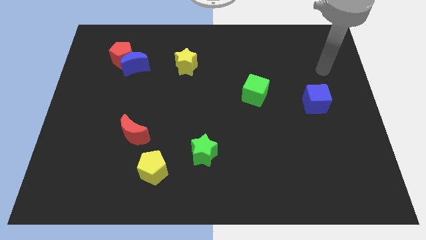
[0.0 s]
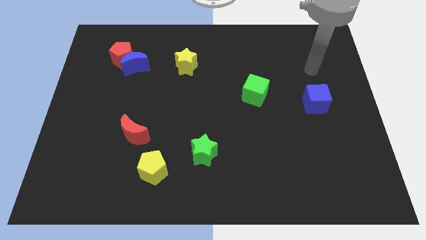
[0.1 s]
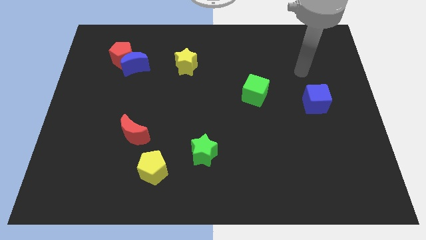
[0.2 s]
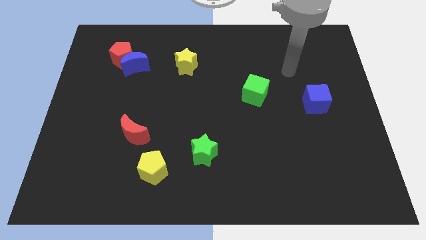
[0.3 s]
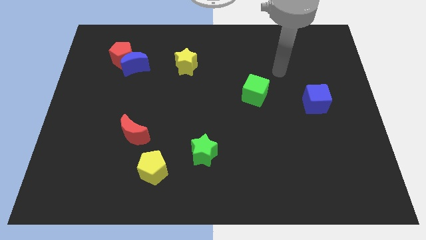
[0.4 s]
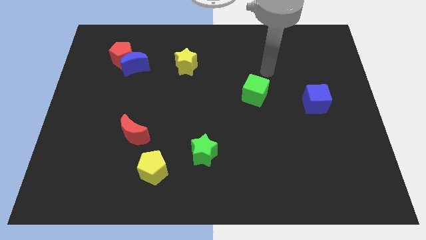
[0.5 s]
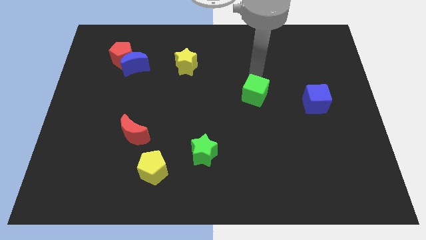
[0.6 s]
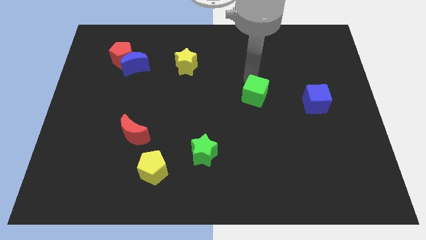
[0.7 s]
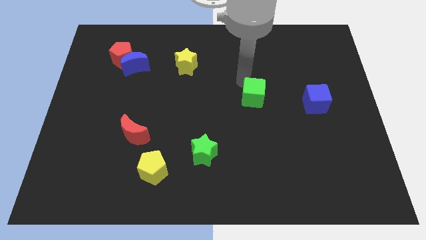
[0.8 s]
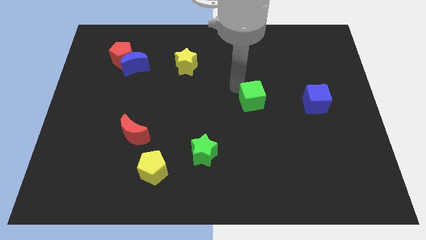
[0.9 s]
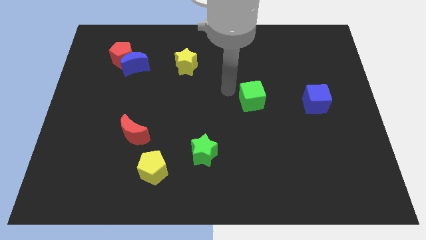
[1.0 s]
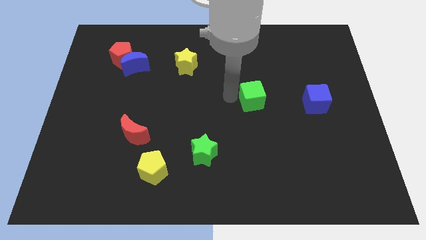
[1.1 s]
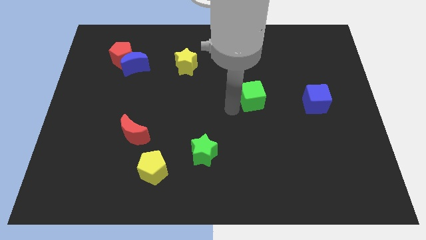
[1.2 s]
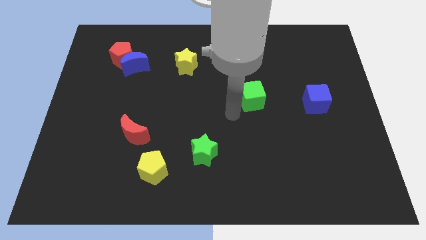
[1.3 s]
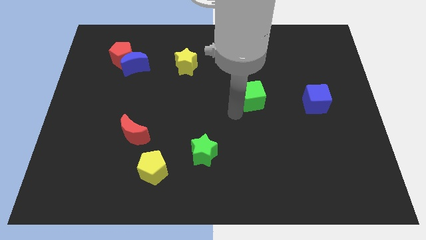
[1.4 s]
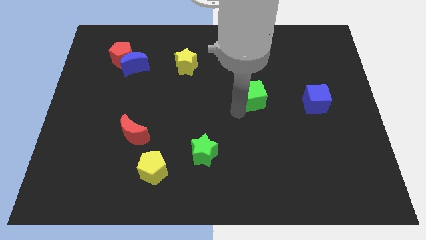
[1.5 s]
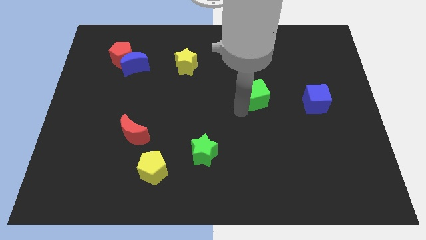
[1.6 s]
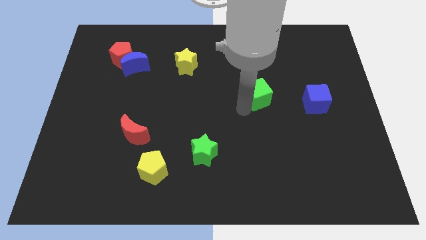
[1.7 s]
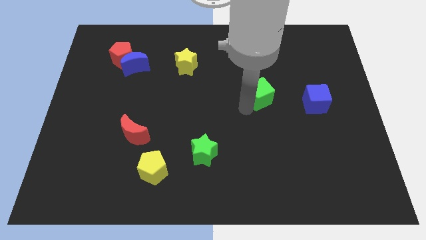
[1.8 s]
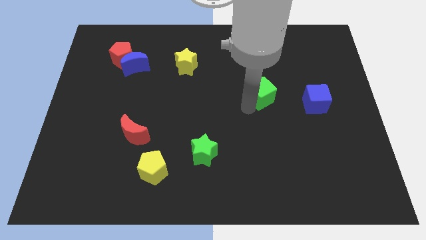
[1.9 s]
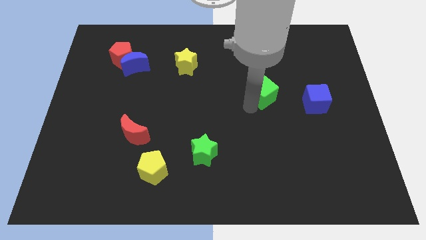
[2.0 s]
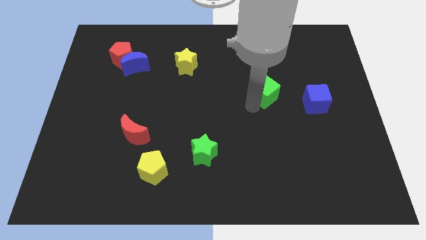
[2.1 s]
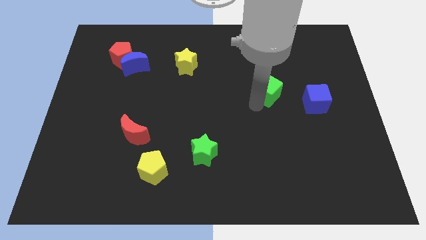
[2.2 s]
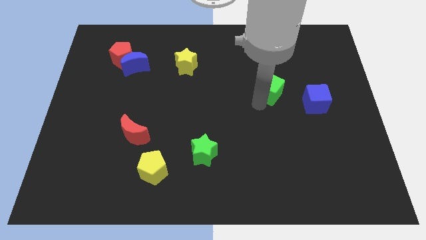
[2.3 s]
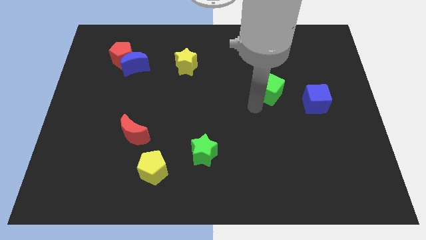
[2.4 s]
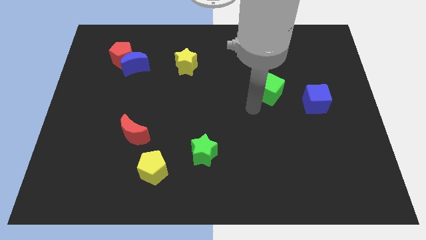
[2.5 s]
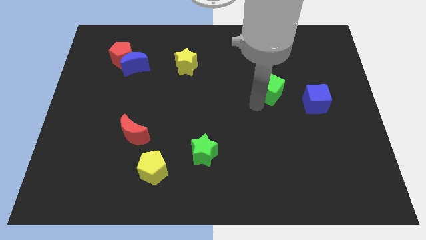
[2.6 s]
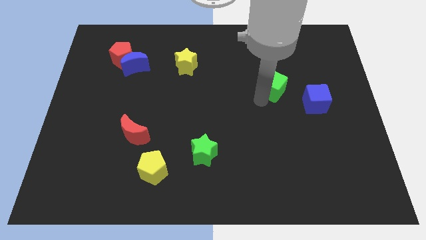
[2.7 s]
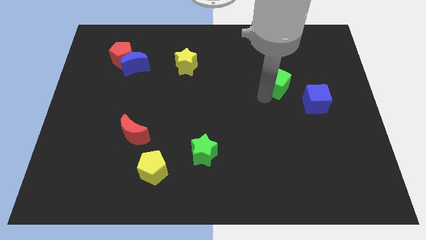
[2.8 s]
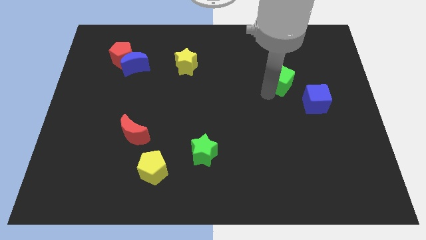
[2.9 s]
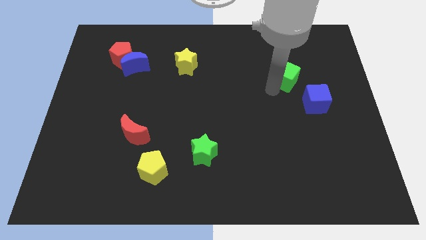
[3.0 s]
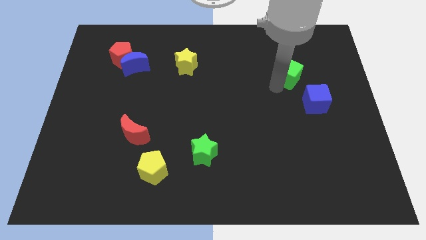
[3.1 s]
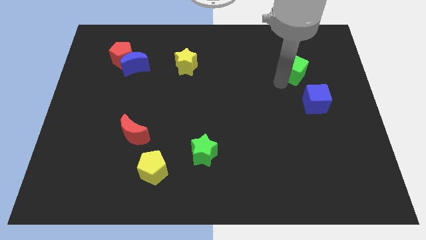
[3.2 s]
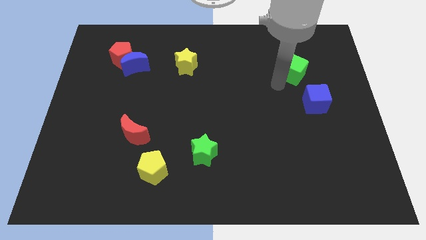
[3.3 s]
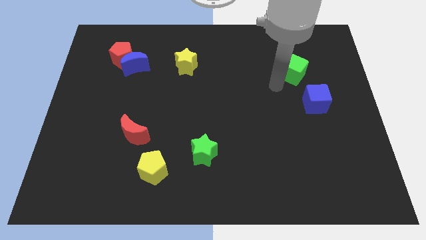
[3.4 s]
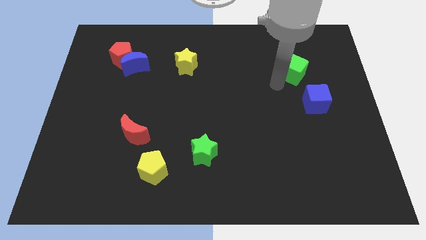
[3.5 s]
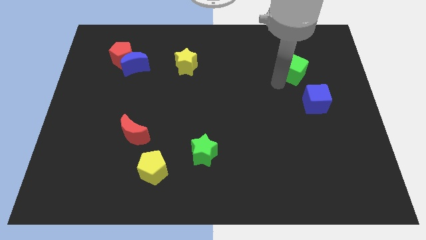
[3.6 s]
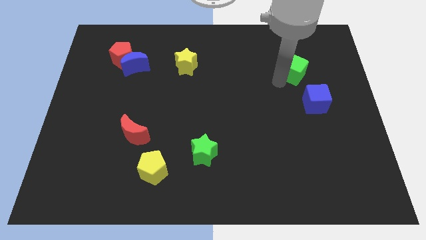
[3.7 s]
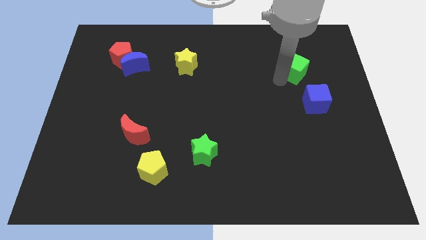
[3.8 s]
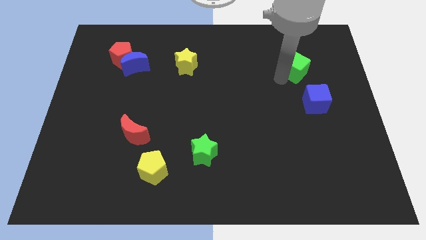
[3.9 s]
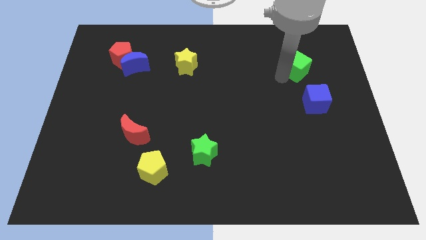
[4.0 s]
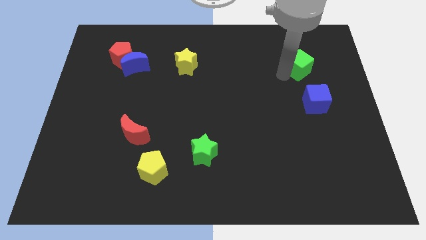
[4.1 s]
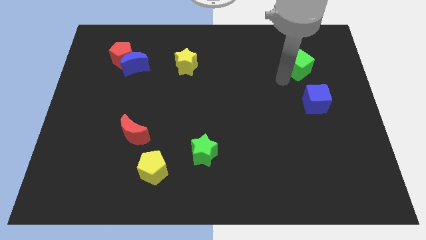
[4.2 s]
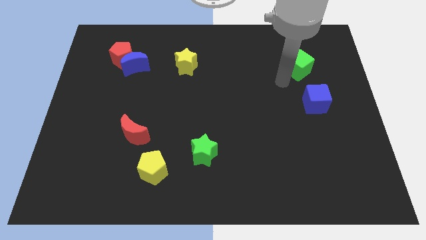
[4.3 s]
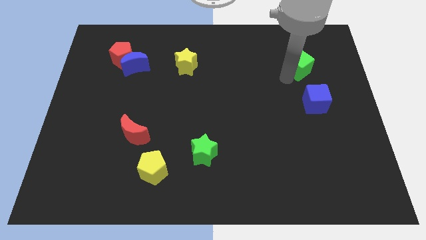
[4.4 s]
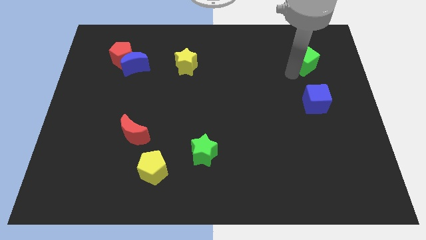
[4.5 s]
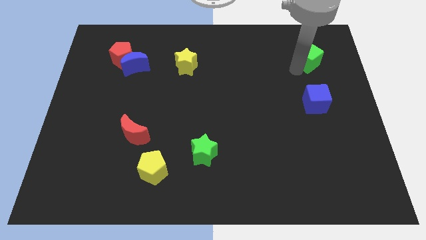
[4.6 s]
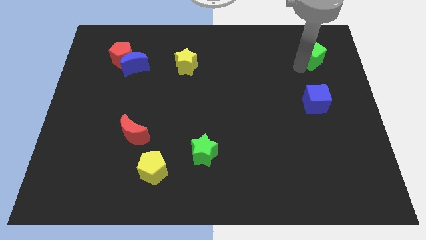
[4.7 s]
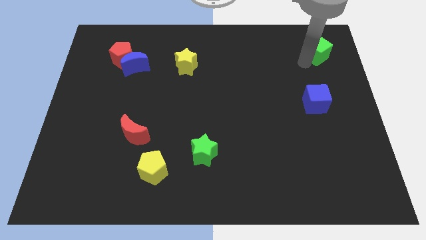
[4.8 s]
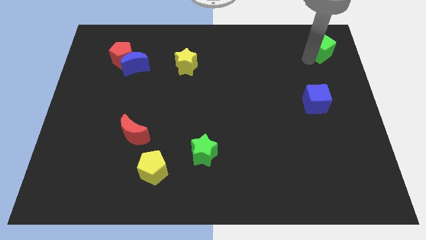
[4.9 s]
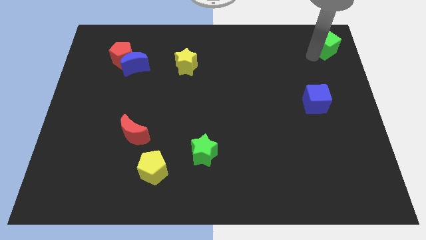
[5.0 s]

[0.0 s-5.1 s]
slide the green cube to the top right corner

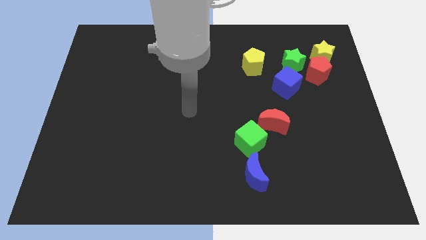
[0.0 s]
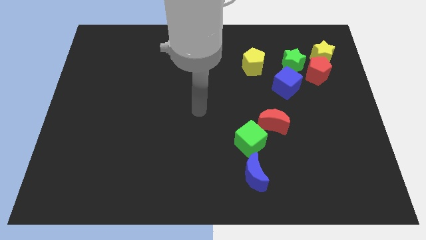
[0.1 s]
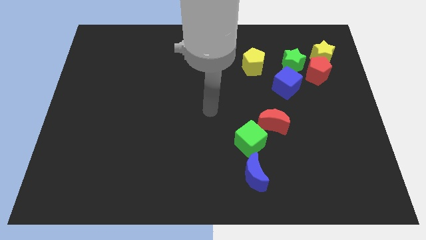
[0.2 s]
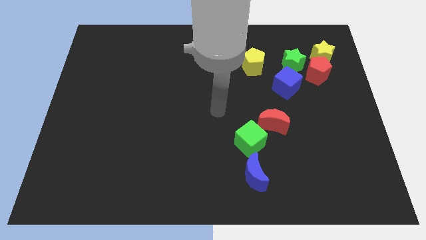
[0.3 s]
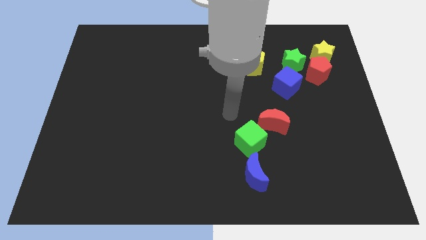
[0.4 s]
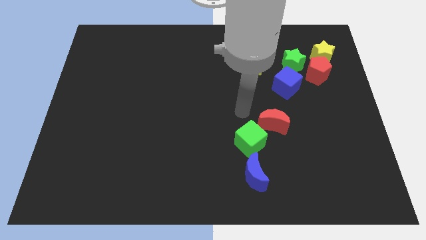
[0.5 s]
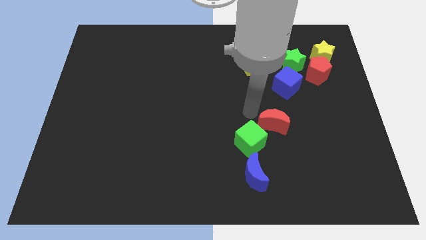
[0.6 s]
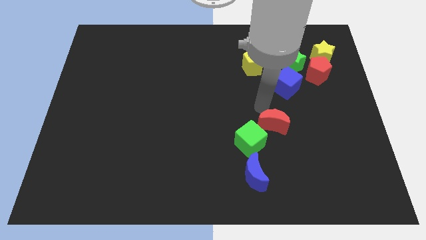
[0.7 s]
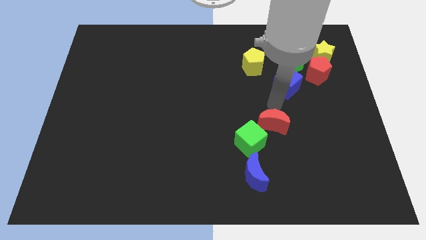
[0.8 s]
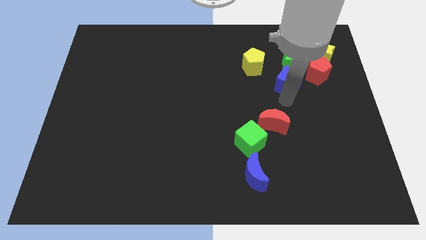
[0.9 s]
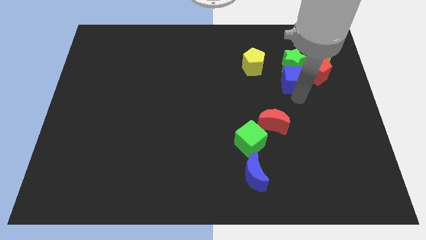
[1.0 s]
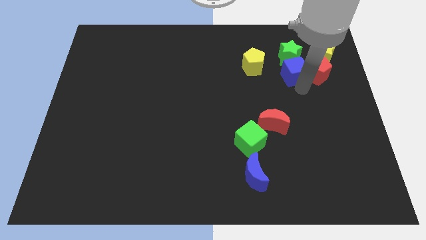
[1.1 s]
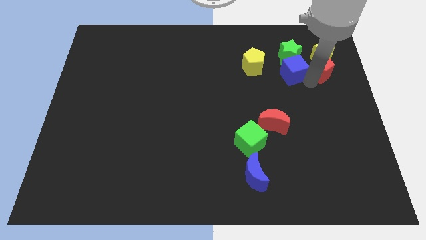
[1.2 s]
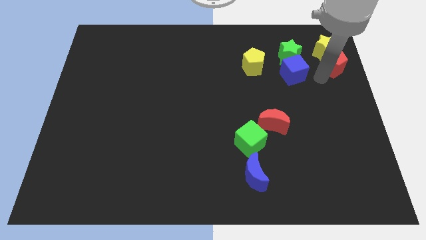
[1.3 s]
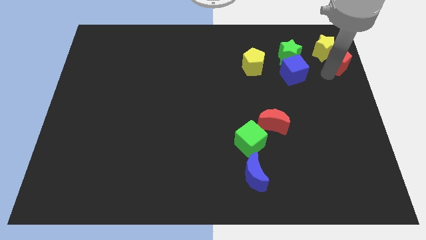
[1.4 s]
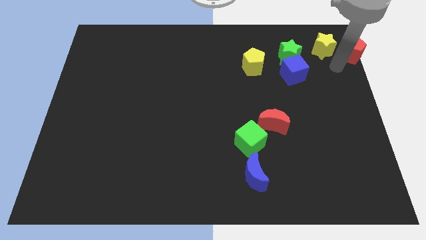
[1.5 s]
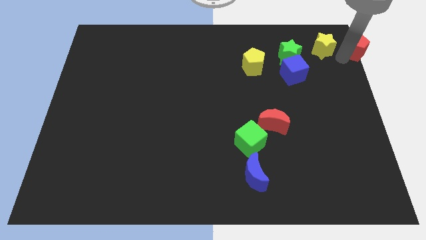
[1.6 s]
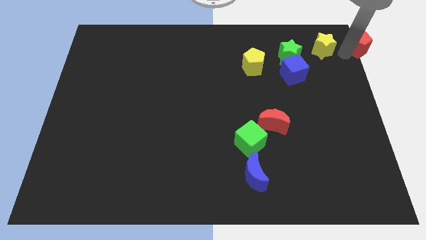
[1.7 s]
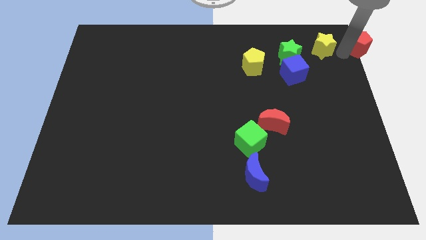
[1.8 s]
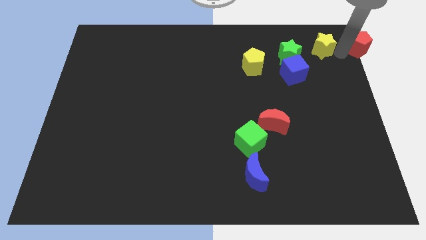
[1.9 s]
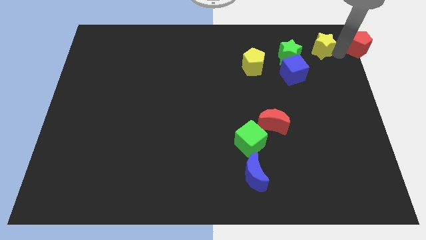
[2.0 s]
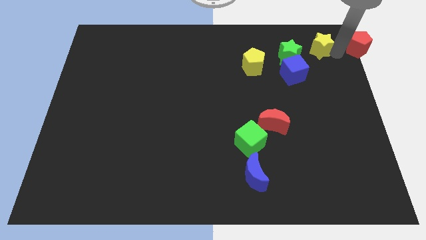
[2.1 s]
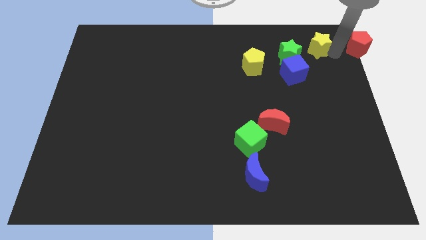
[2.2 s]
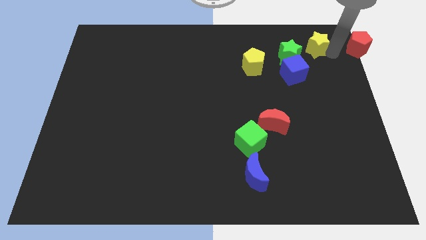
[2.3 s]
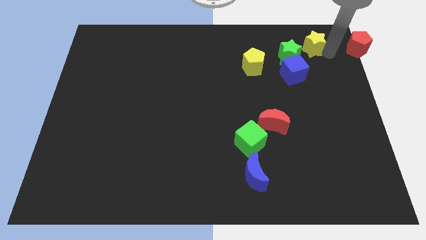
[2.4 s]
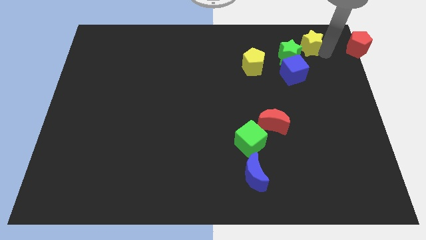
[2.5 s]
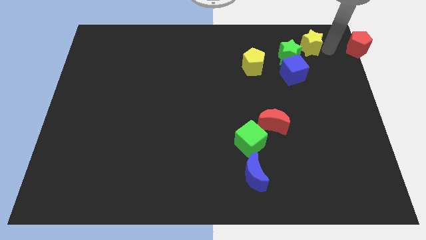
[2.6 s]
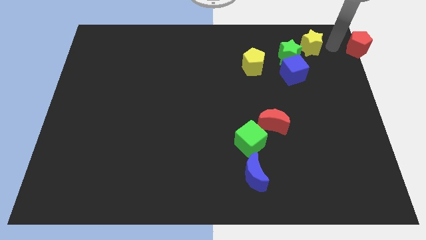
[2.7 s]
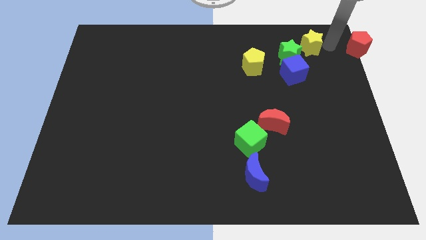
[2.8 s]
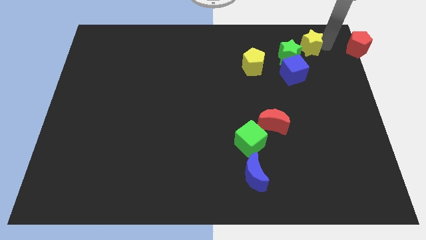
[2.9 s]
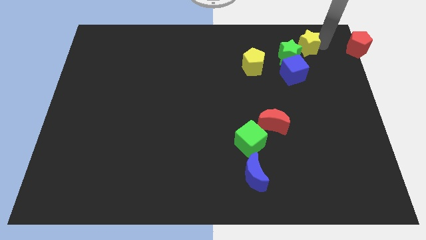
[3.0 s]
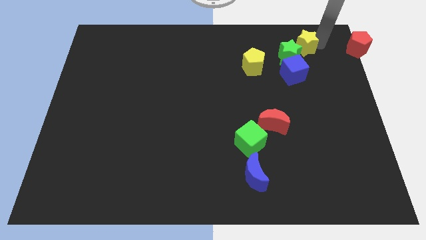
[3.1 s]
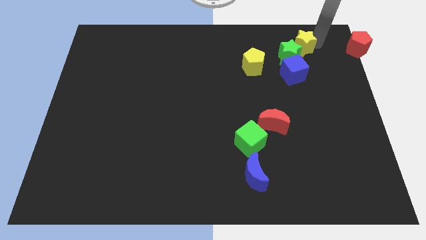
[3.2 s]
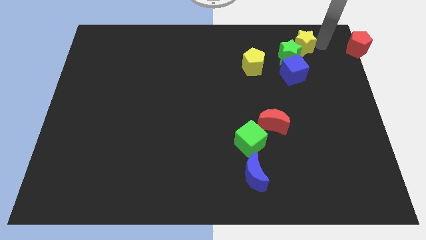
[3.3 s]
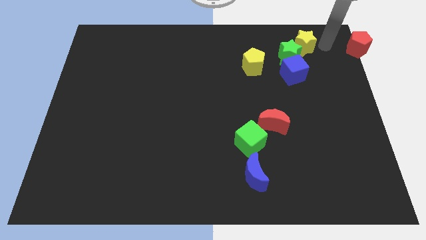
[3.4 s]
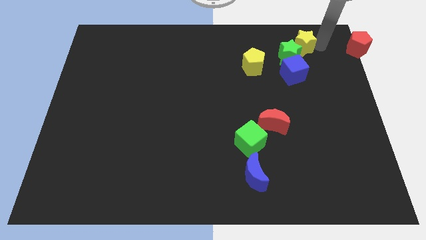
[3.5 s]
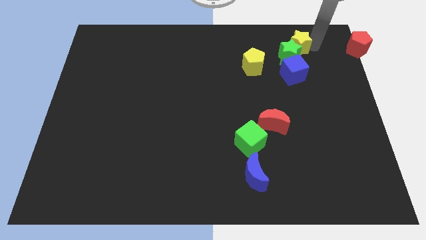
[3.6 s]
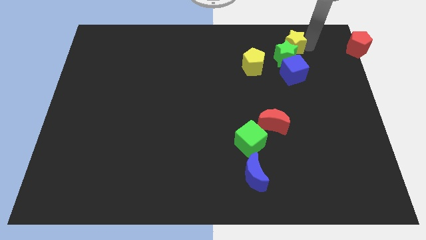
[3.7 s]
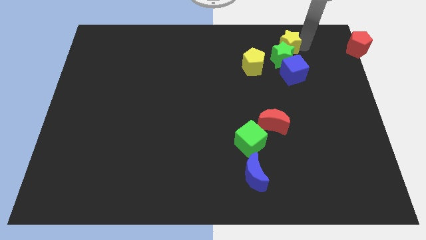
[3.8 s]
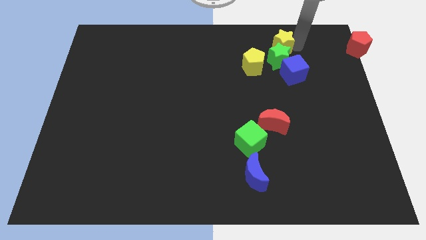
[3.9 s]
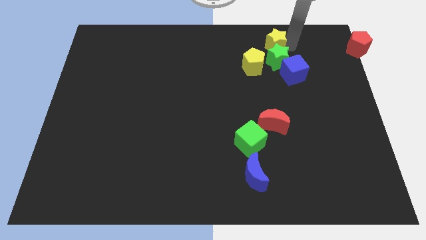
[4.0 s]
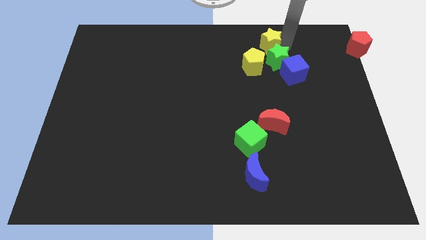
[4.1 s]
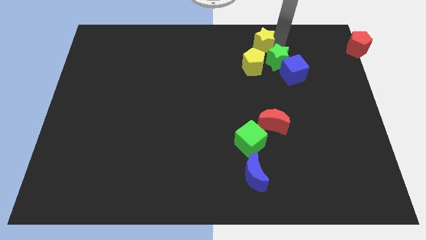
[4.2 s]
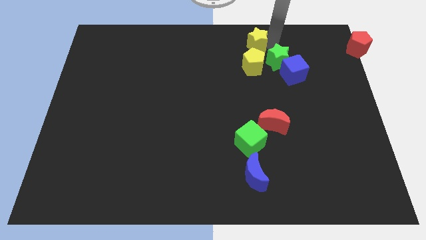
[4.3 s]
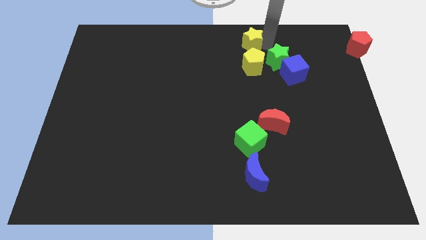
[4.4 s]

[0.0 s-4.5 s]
move the yellow star to the towards your base
